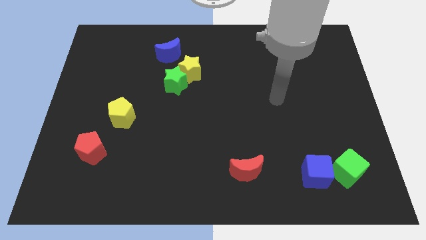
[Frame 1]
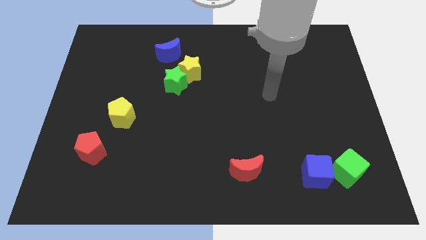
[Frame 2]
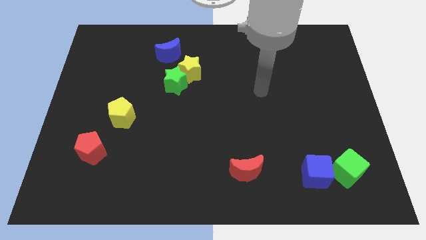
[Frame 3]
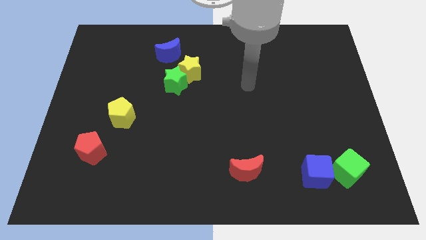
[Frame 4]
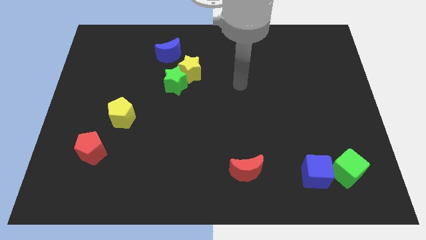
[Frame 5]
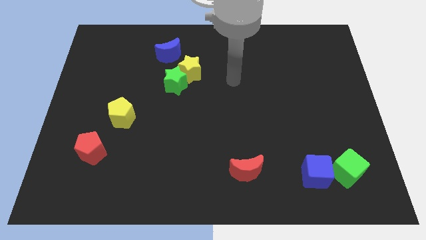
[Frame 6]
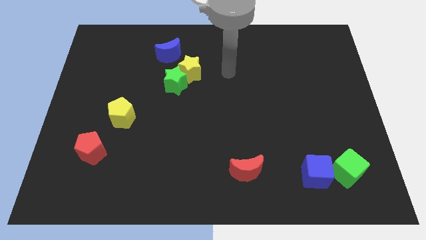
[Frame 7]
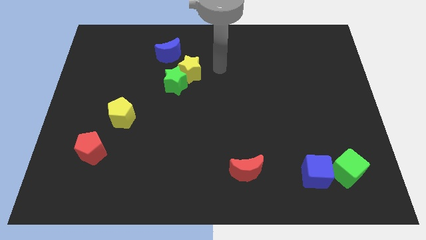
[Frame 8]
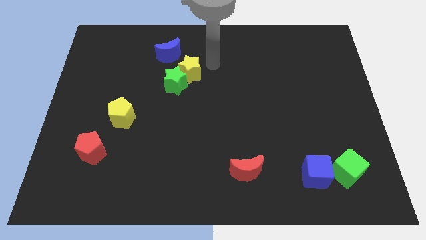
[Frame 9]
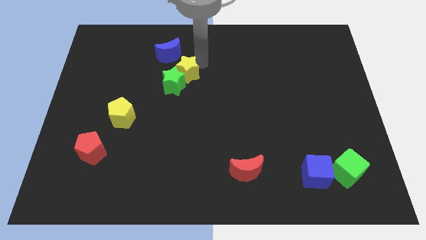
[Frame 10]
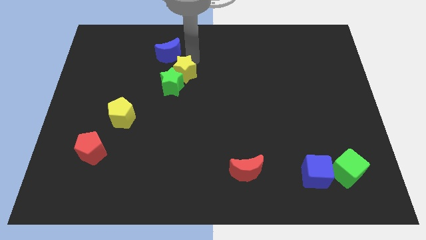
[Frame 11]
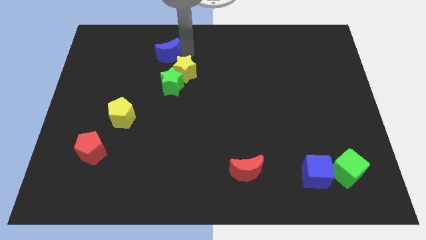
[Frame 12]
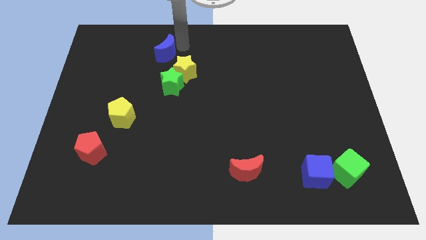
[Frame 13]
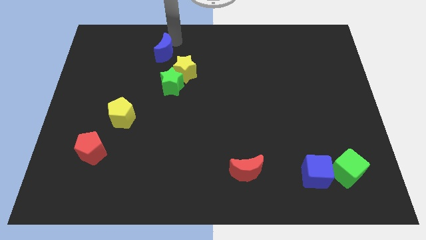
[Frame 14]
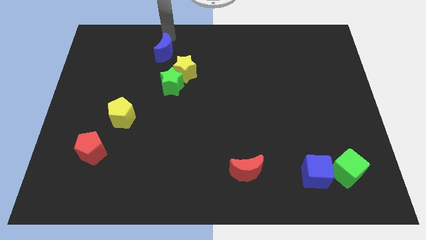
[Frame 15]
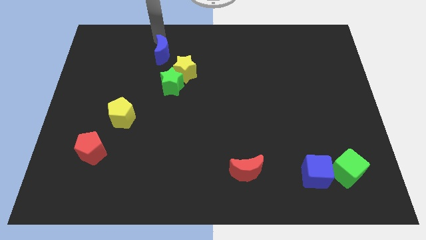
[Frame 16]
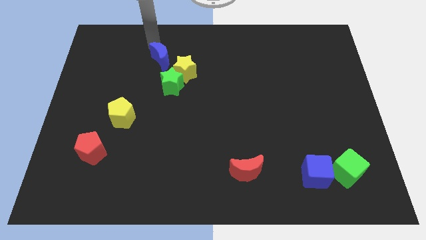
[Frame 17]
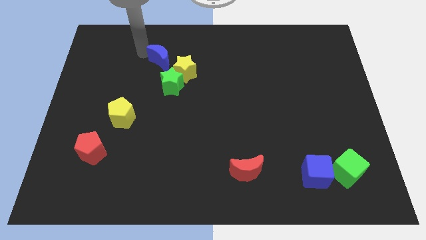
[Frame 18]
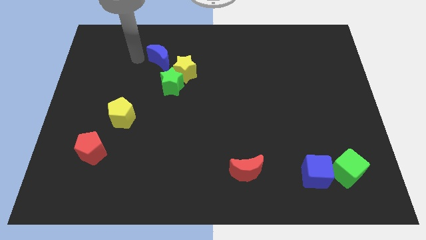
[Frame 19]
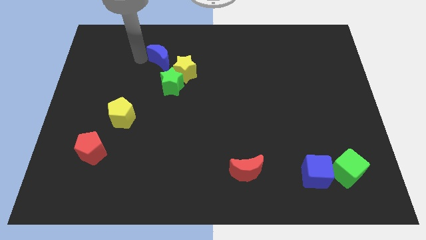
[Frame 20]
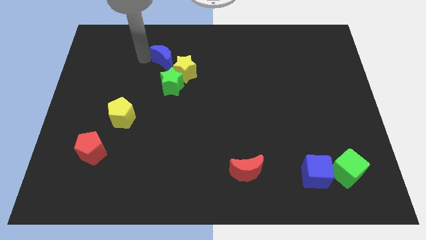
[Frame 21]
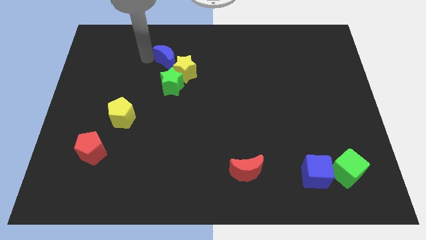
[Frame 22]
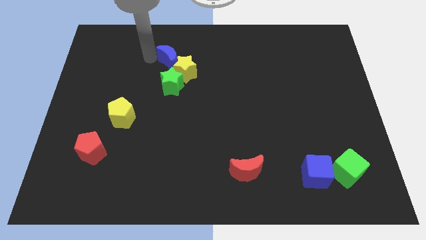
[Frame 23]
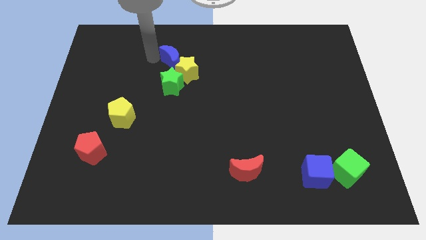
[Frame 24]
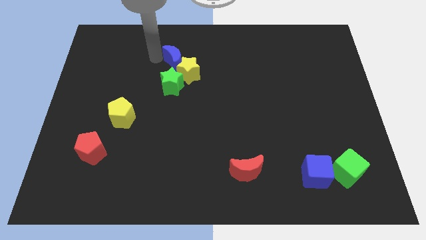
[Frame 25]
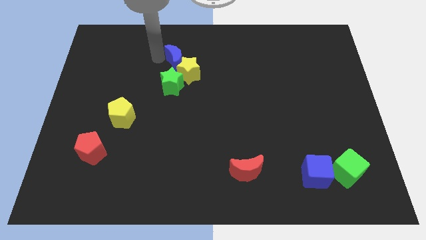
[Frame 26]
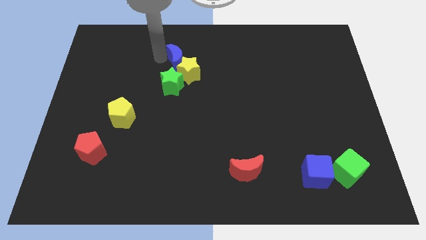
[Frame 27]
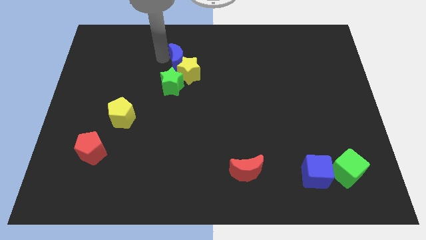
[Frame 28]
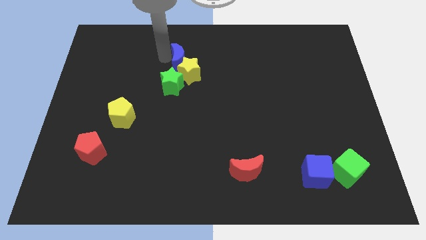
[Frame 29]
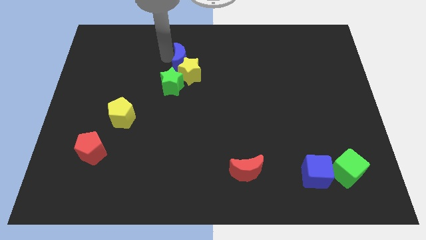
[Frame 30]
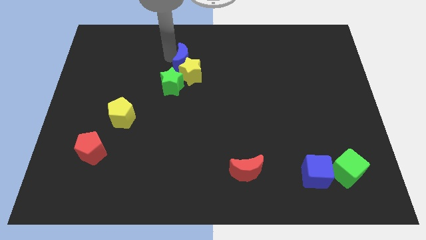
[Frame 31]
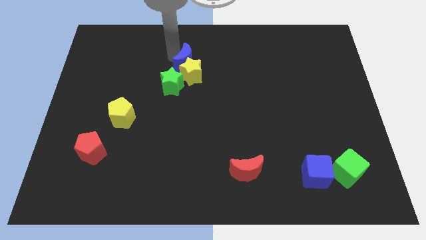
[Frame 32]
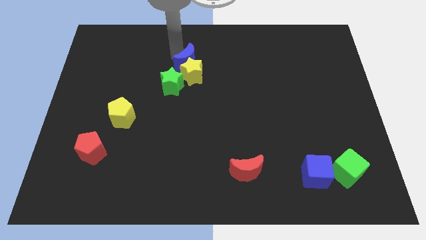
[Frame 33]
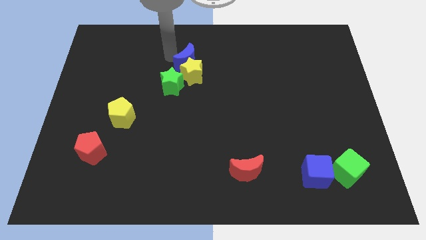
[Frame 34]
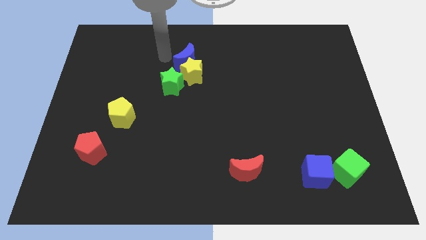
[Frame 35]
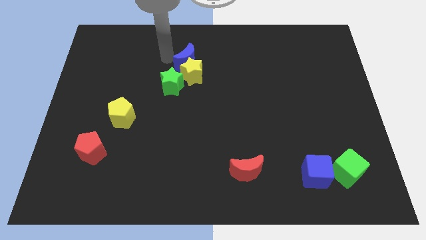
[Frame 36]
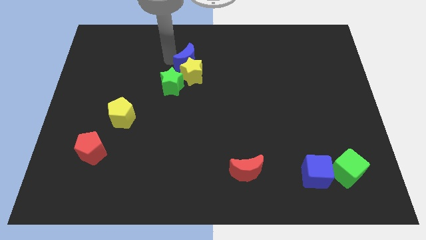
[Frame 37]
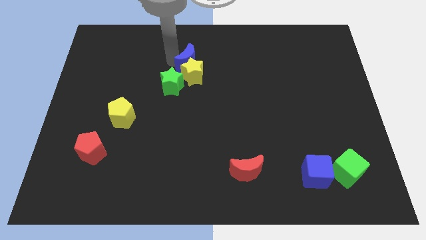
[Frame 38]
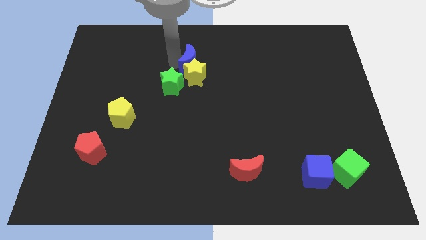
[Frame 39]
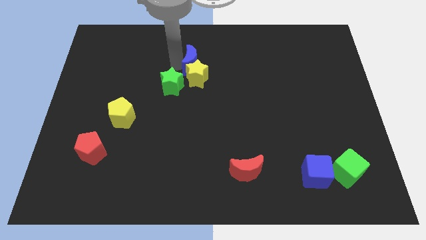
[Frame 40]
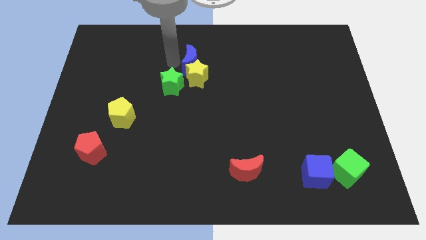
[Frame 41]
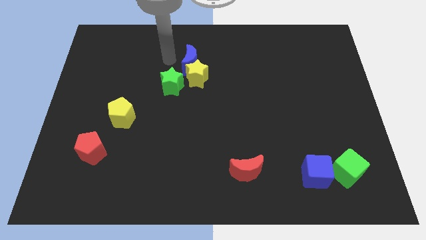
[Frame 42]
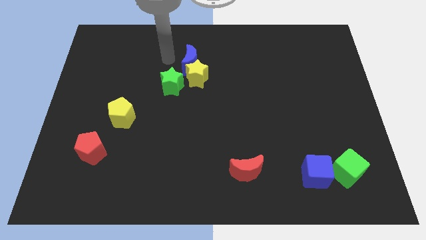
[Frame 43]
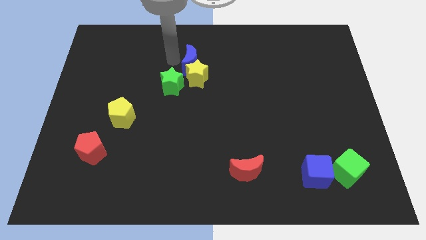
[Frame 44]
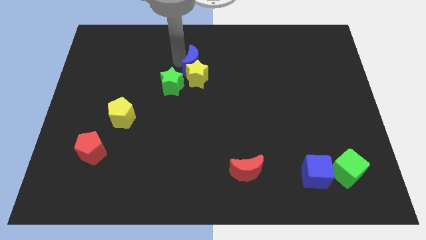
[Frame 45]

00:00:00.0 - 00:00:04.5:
push the blue moon downwards and to the right diagonally a bit

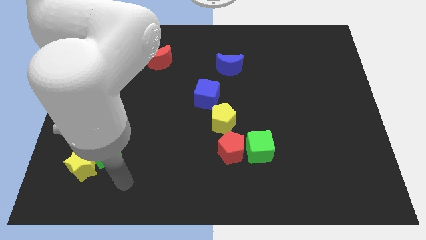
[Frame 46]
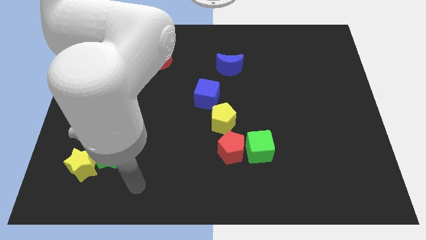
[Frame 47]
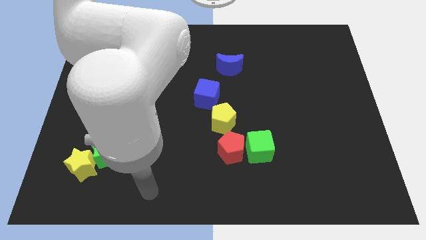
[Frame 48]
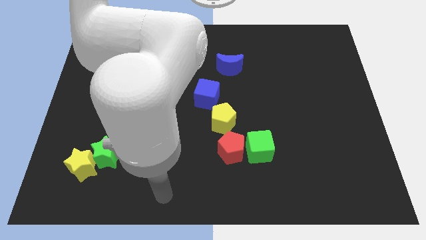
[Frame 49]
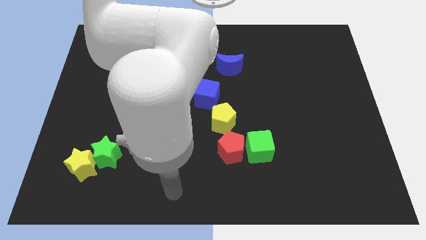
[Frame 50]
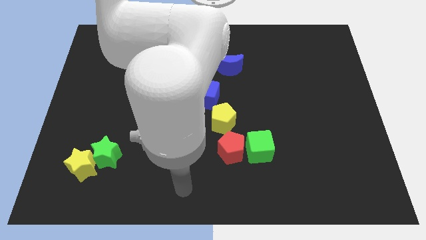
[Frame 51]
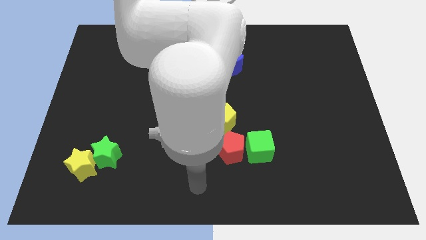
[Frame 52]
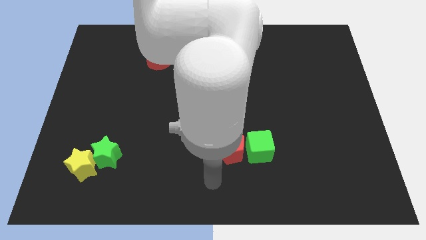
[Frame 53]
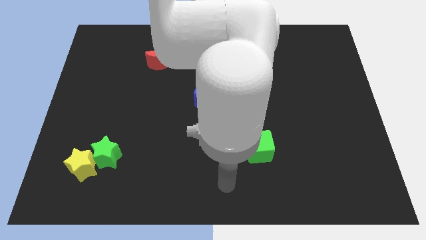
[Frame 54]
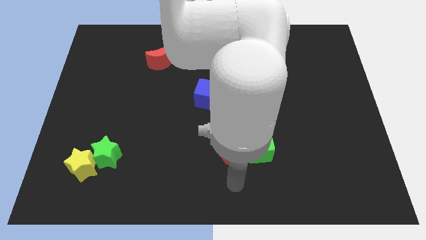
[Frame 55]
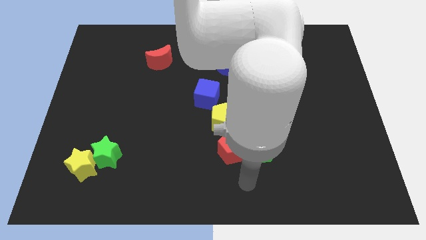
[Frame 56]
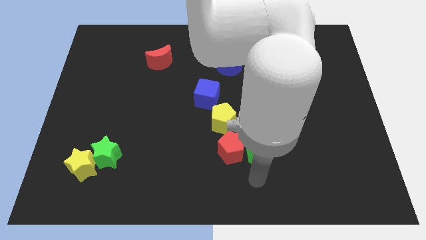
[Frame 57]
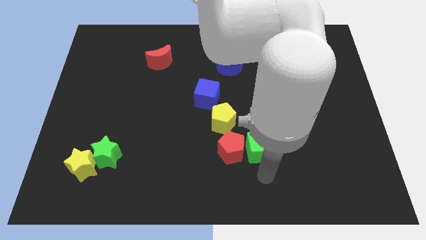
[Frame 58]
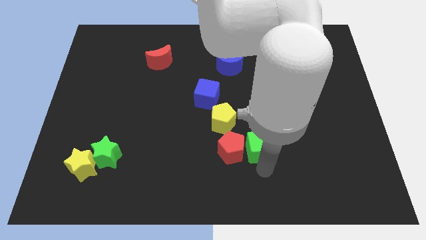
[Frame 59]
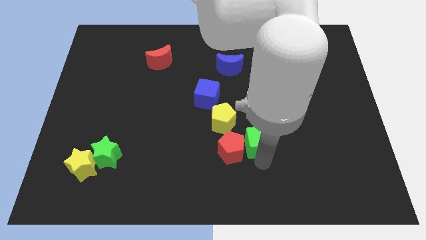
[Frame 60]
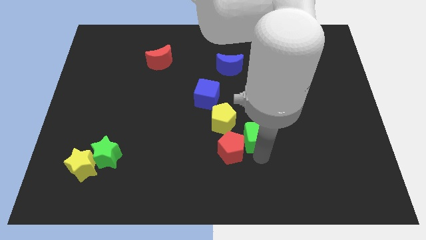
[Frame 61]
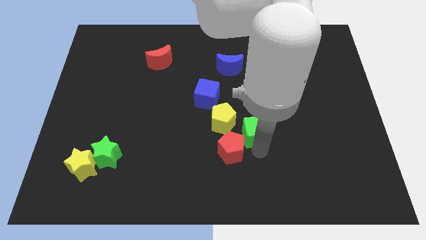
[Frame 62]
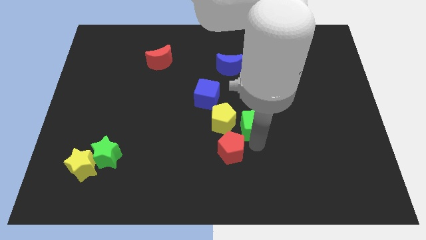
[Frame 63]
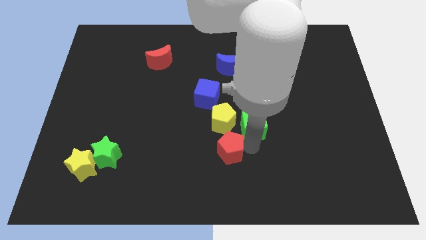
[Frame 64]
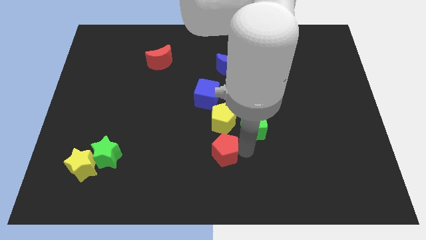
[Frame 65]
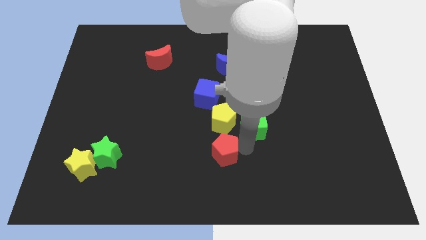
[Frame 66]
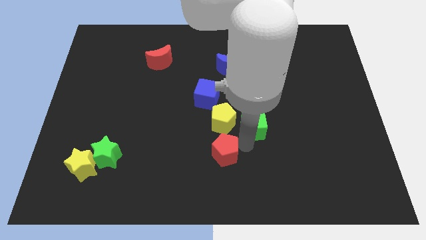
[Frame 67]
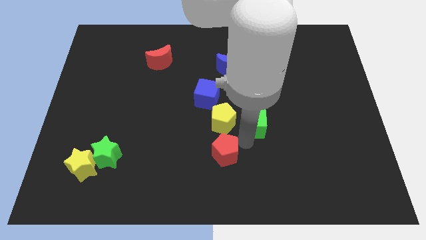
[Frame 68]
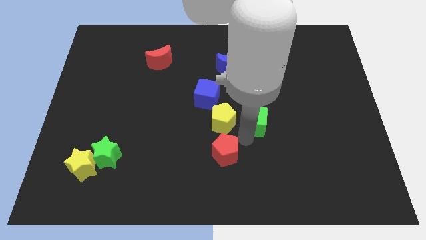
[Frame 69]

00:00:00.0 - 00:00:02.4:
slightly push the green cube up

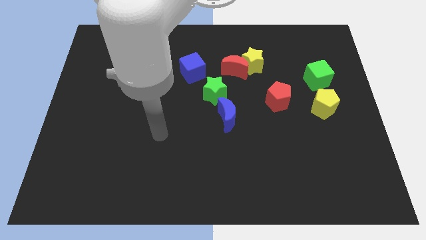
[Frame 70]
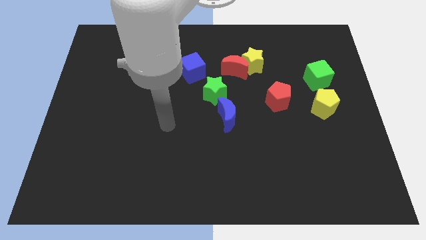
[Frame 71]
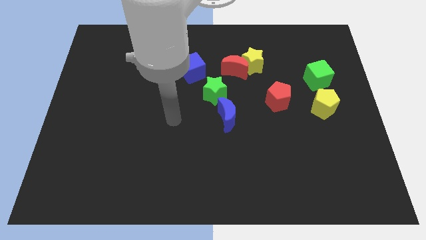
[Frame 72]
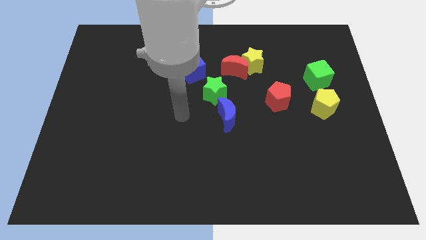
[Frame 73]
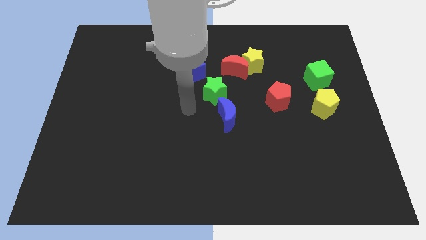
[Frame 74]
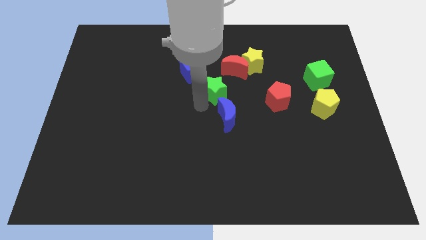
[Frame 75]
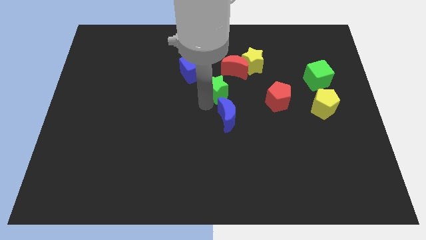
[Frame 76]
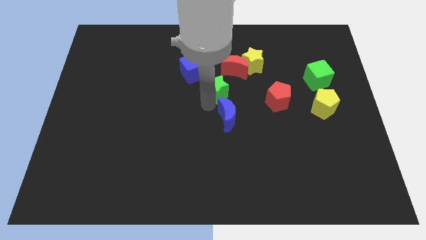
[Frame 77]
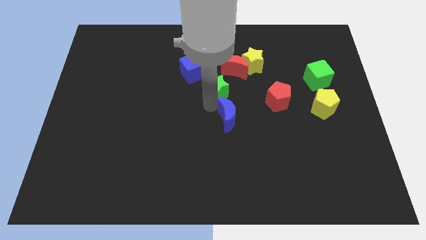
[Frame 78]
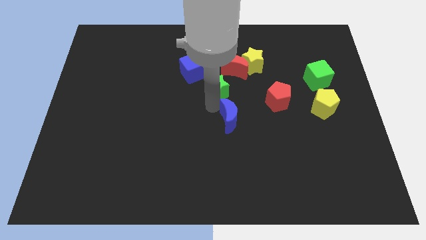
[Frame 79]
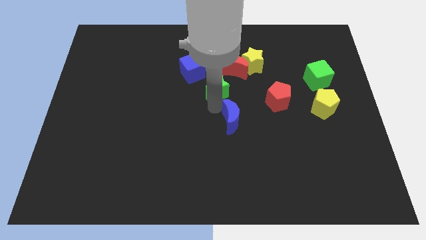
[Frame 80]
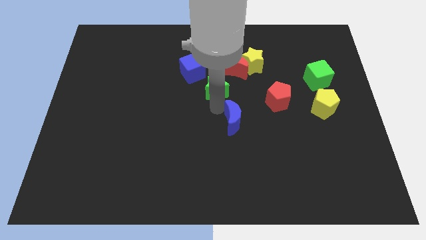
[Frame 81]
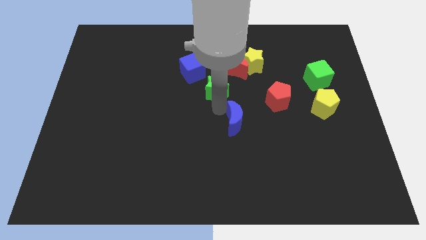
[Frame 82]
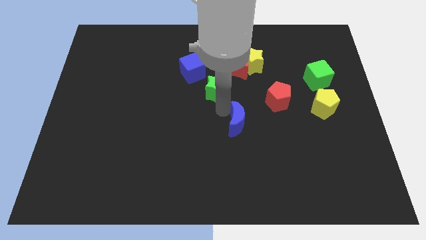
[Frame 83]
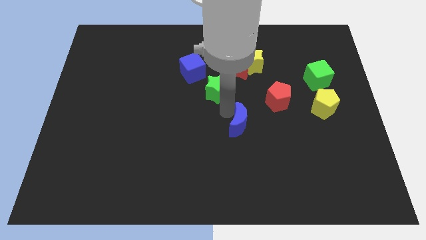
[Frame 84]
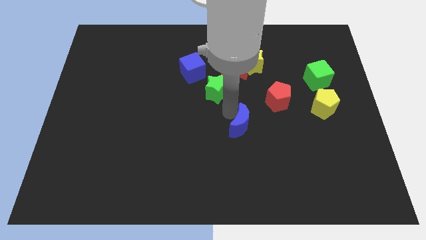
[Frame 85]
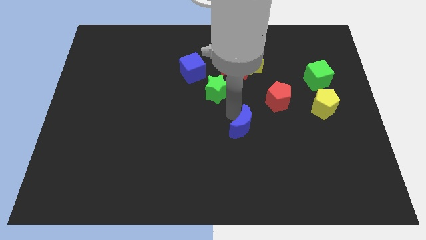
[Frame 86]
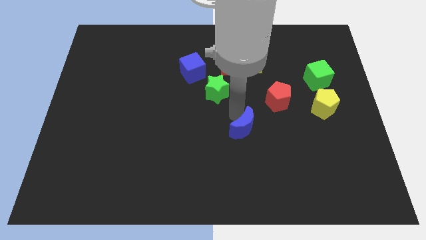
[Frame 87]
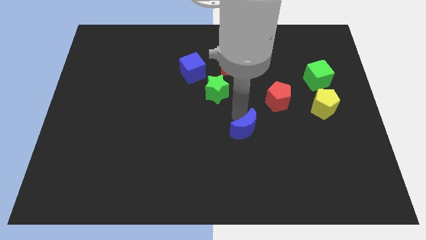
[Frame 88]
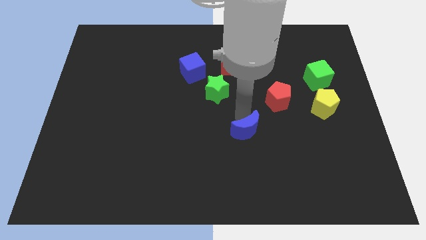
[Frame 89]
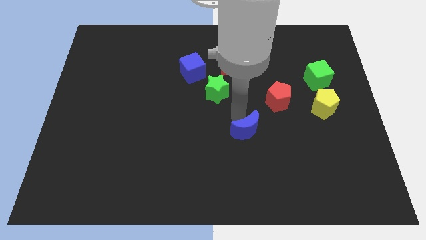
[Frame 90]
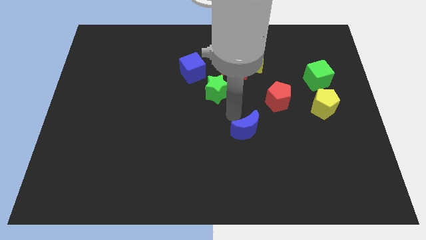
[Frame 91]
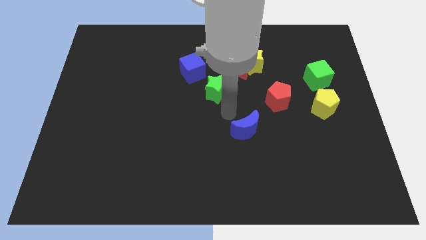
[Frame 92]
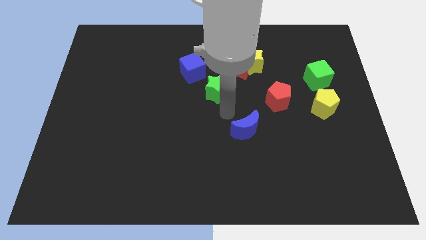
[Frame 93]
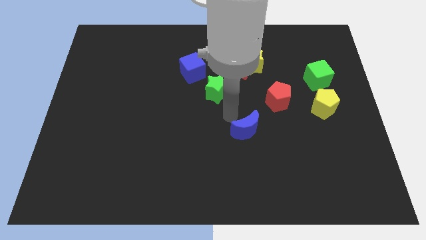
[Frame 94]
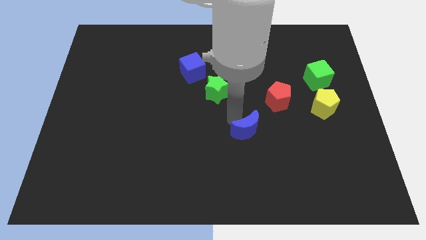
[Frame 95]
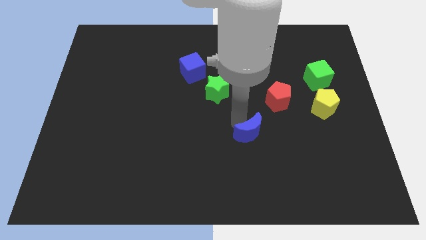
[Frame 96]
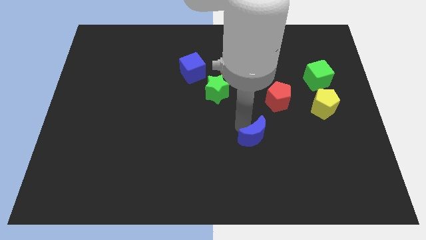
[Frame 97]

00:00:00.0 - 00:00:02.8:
slide the blue moon a little downwards and then right
